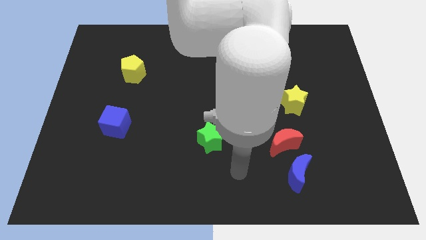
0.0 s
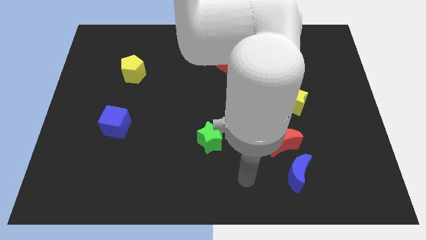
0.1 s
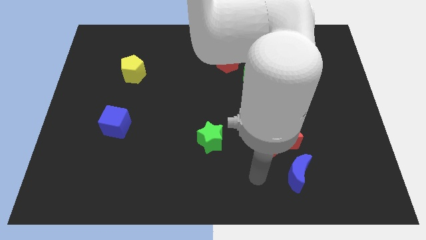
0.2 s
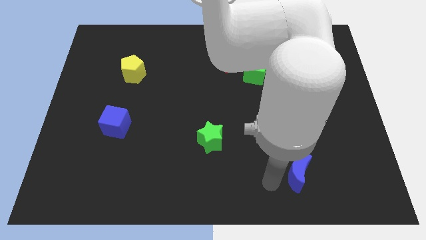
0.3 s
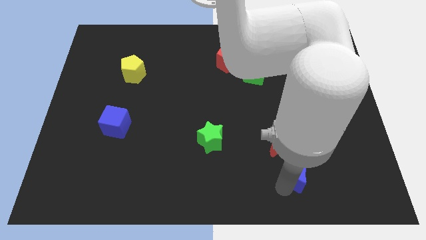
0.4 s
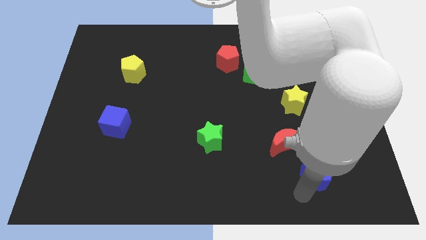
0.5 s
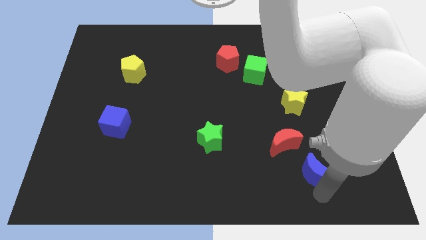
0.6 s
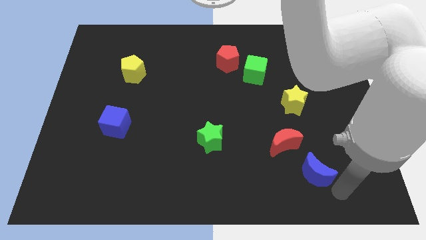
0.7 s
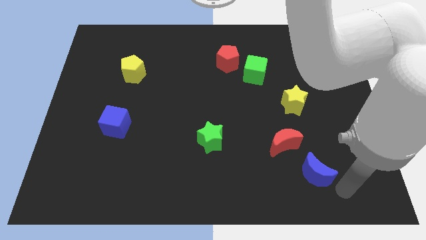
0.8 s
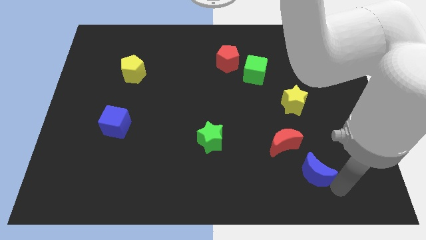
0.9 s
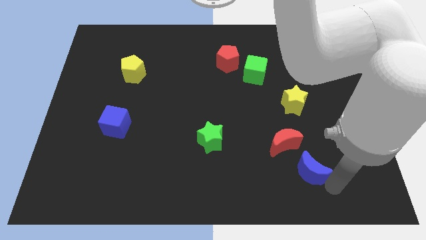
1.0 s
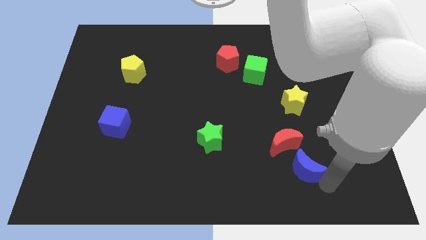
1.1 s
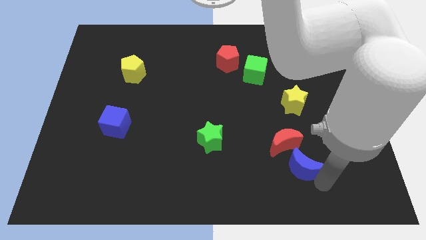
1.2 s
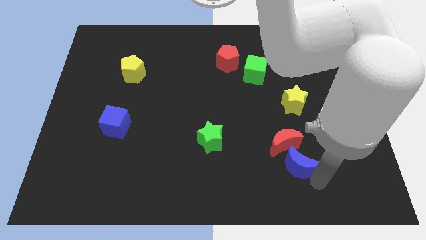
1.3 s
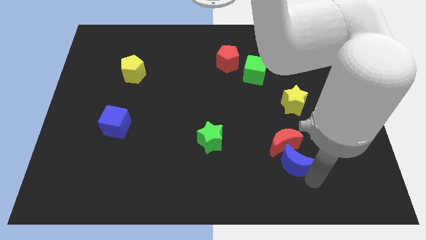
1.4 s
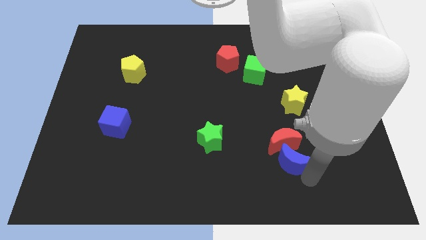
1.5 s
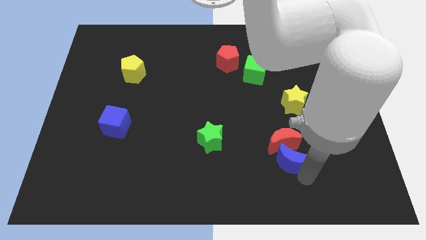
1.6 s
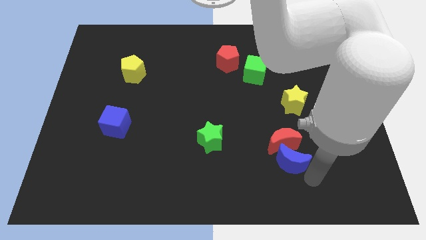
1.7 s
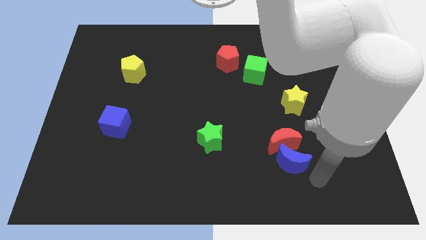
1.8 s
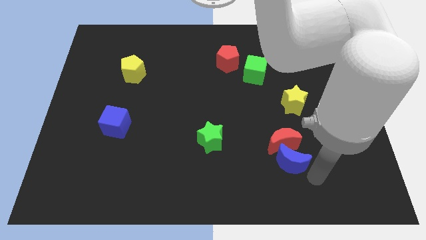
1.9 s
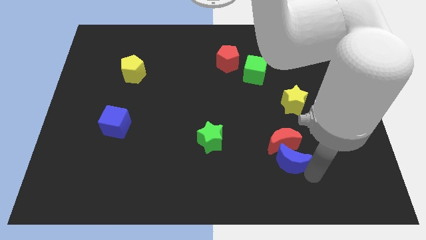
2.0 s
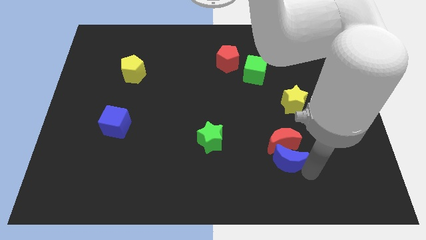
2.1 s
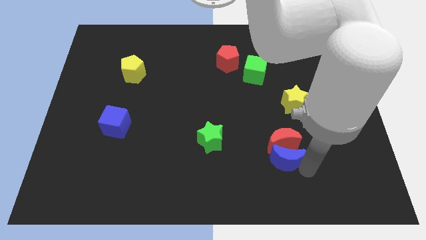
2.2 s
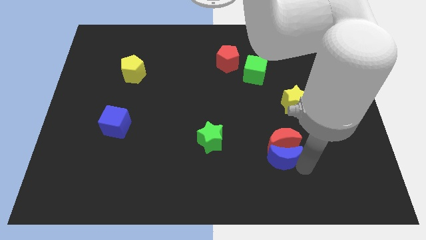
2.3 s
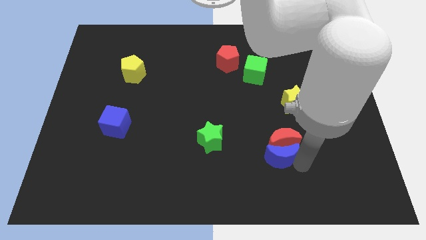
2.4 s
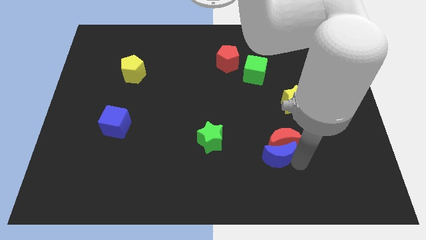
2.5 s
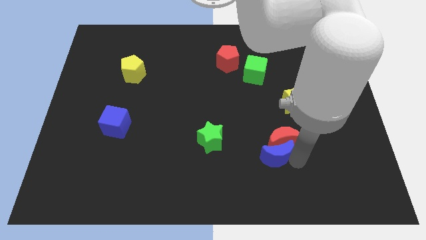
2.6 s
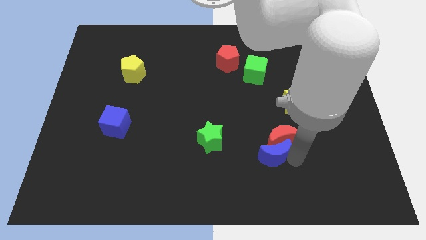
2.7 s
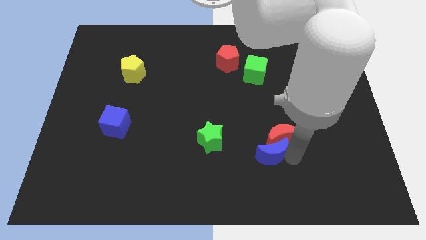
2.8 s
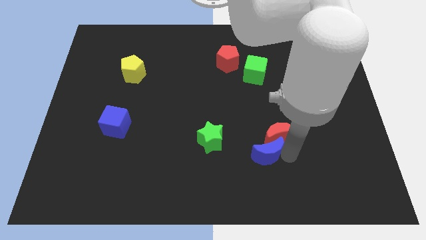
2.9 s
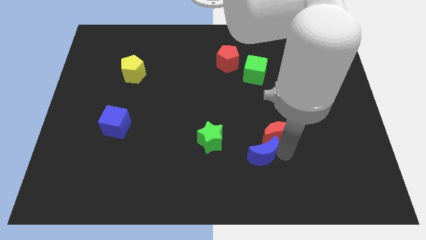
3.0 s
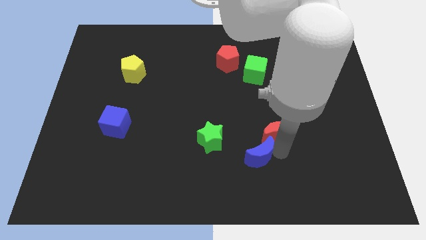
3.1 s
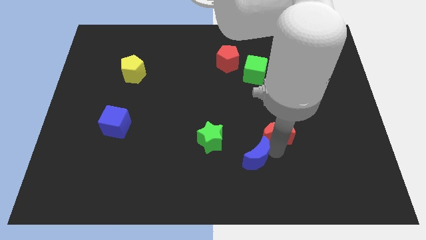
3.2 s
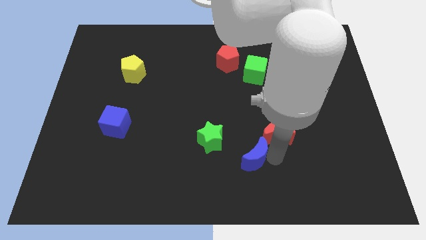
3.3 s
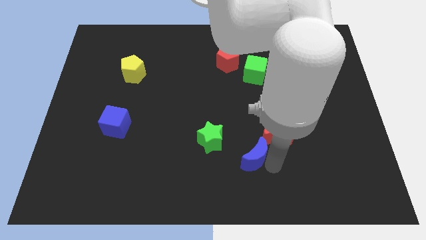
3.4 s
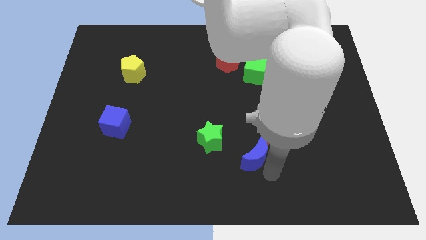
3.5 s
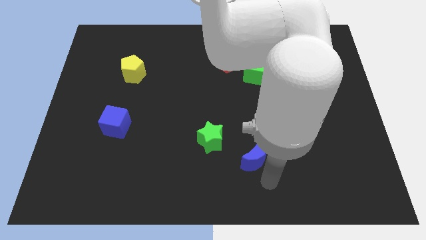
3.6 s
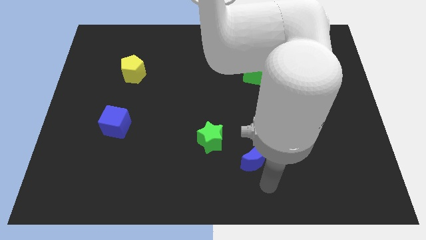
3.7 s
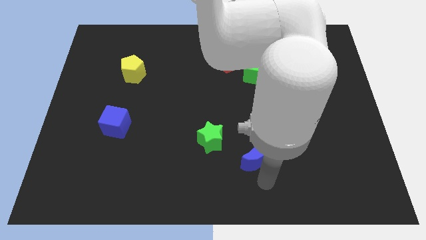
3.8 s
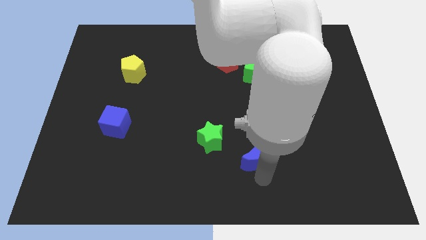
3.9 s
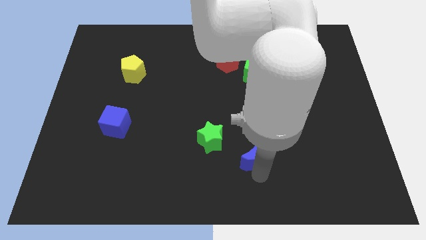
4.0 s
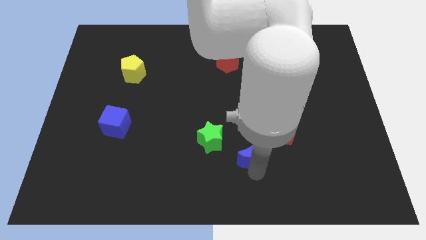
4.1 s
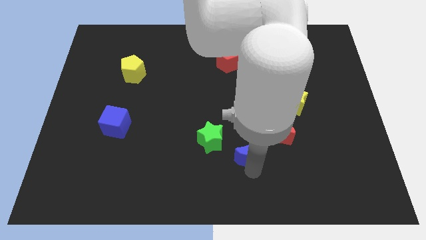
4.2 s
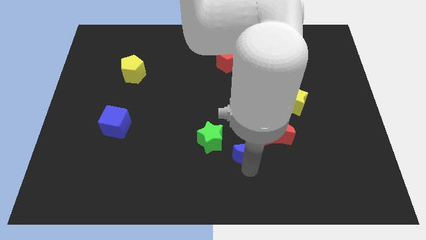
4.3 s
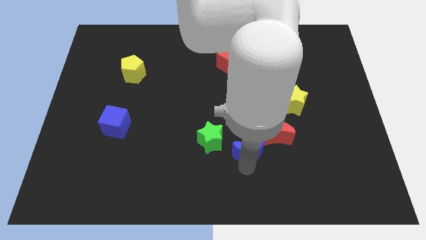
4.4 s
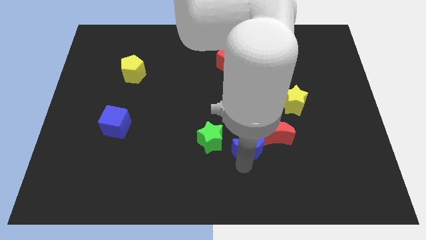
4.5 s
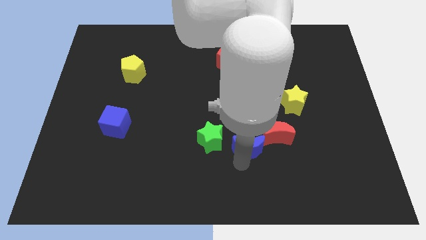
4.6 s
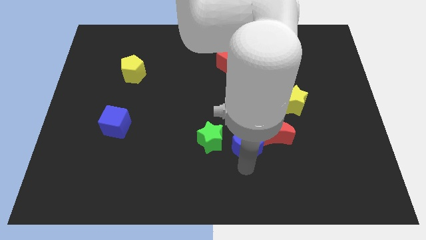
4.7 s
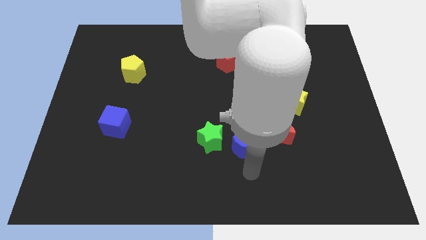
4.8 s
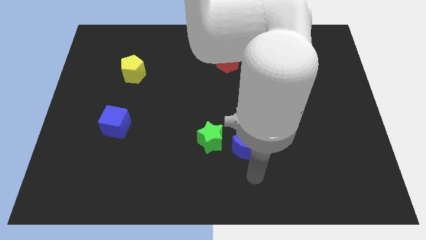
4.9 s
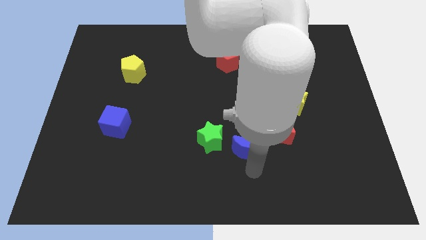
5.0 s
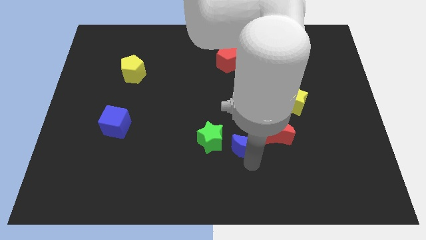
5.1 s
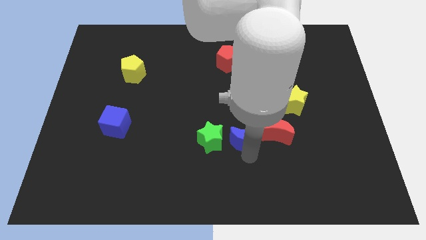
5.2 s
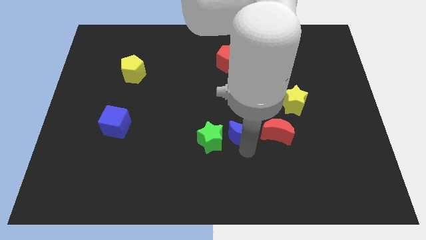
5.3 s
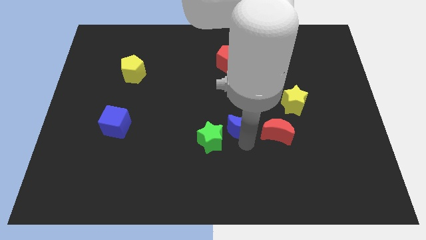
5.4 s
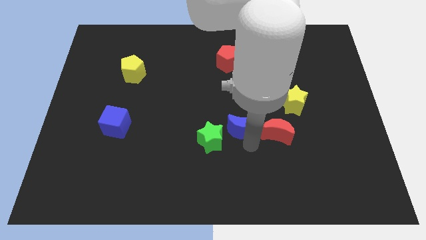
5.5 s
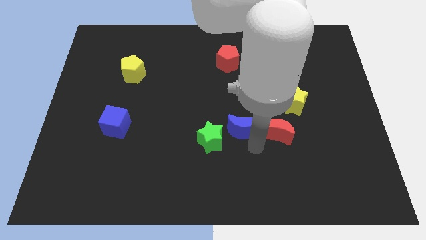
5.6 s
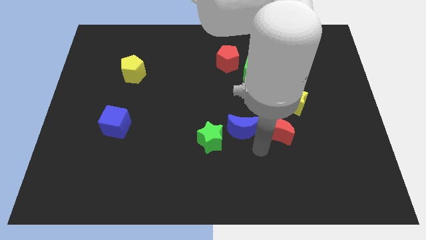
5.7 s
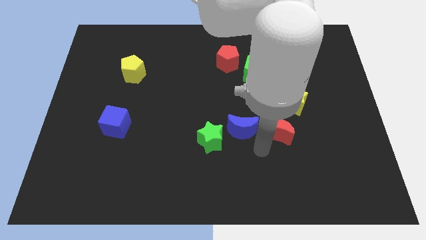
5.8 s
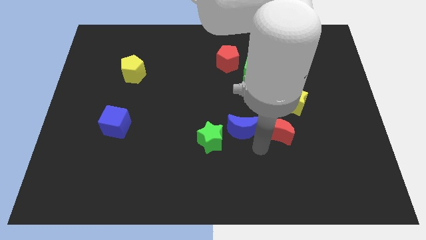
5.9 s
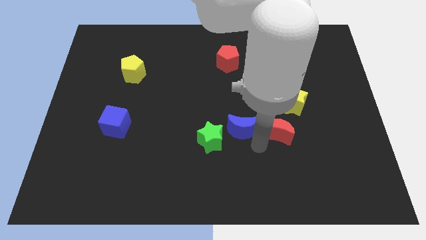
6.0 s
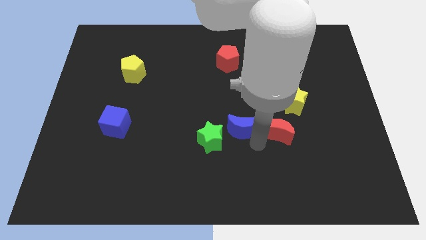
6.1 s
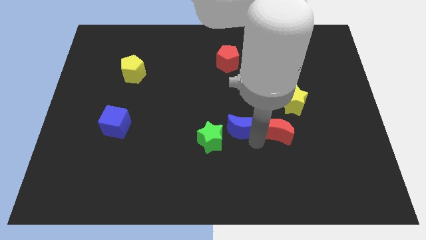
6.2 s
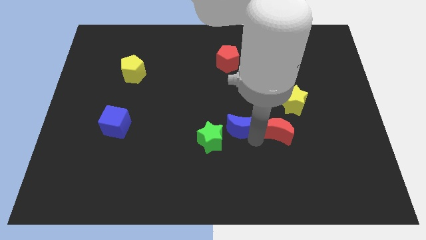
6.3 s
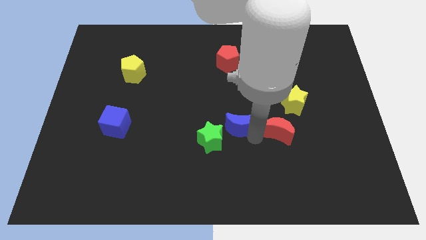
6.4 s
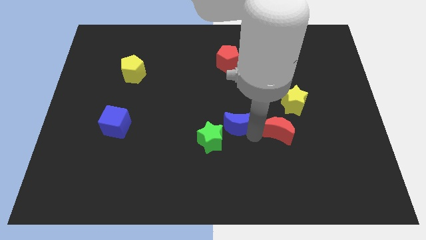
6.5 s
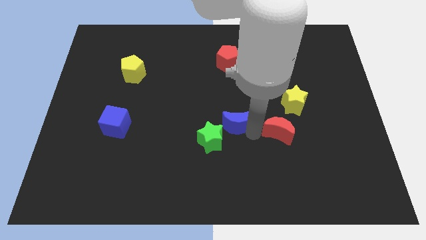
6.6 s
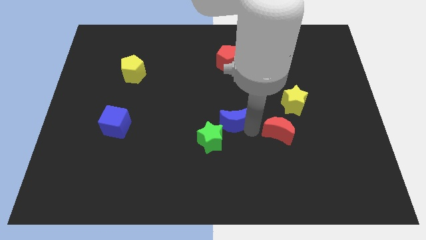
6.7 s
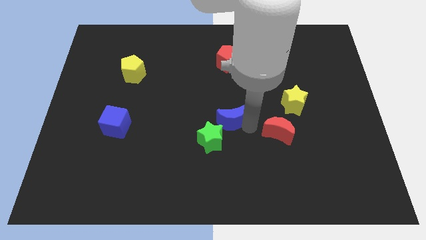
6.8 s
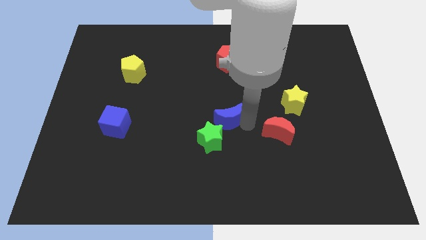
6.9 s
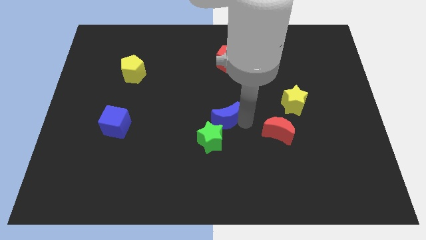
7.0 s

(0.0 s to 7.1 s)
push the blue moon upwards and then to the left

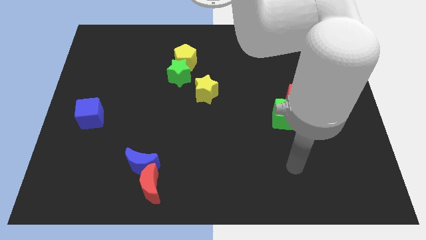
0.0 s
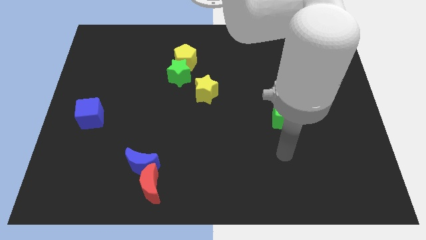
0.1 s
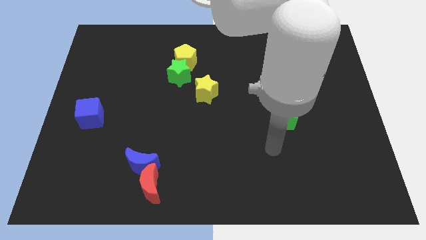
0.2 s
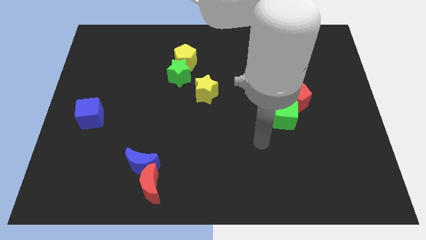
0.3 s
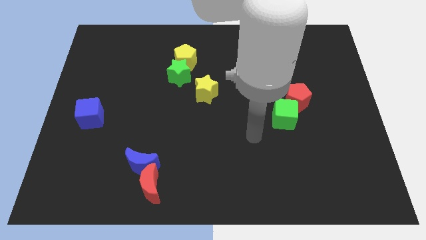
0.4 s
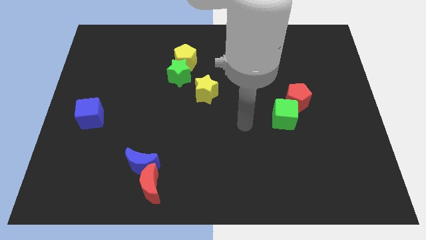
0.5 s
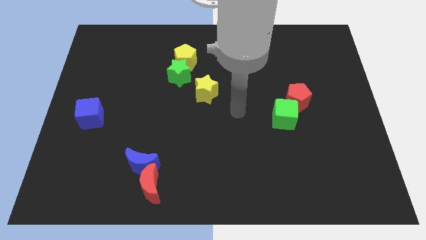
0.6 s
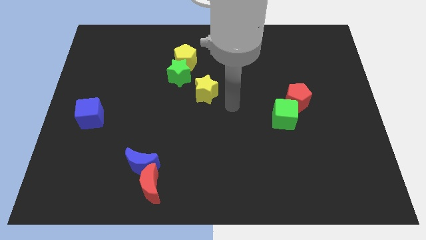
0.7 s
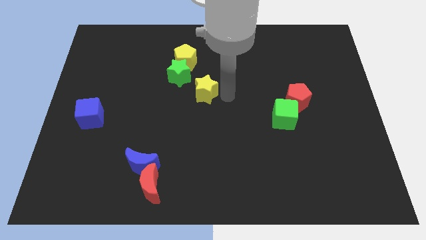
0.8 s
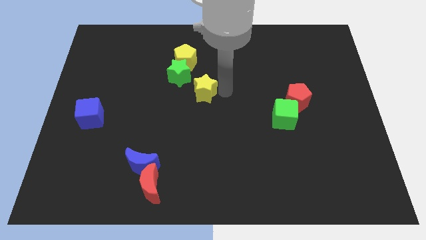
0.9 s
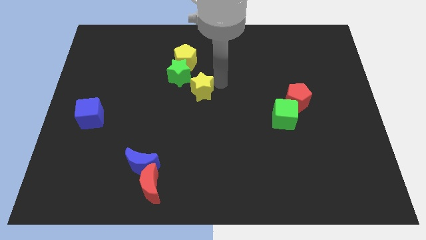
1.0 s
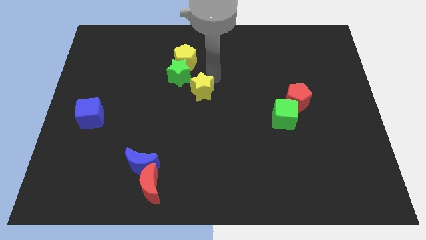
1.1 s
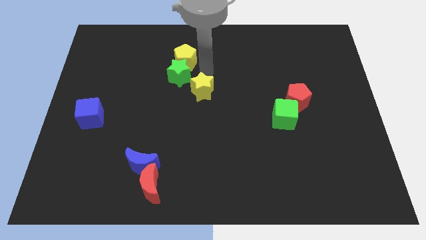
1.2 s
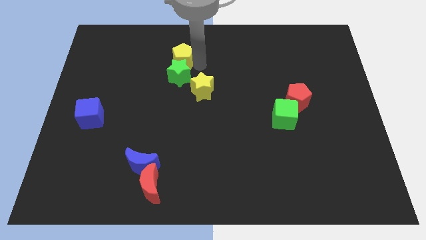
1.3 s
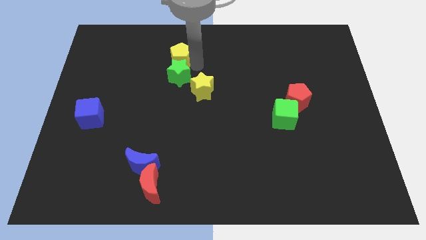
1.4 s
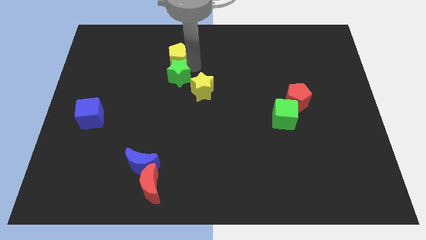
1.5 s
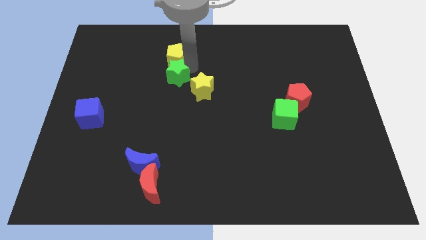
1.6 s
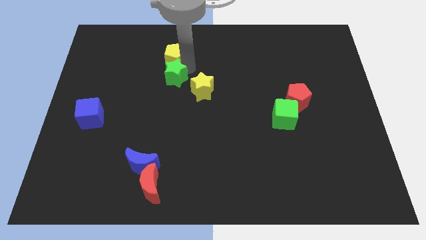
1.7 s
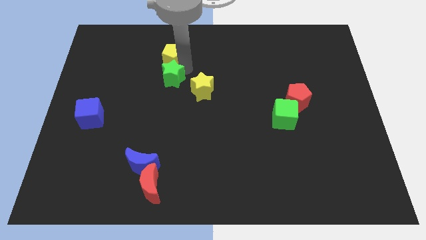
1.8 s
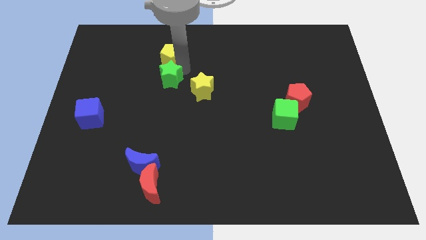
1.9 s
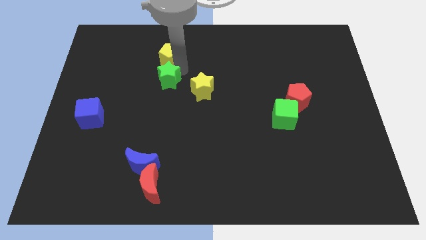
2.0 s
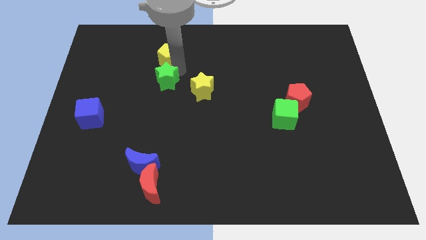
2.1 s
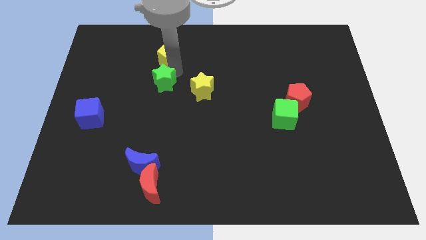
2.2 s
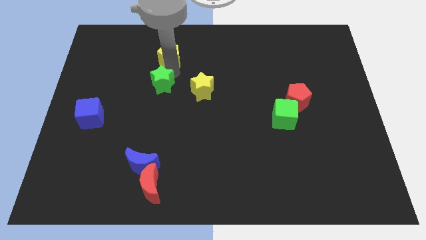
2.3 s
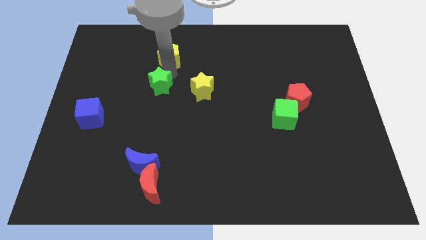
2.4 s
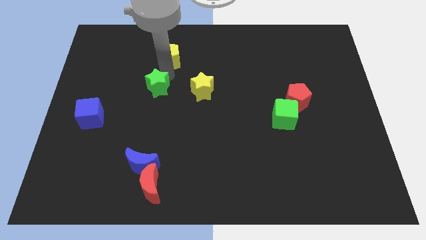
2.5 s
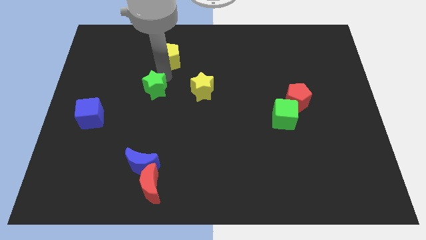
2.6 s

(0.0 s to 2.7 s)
push the green star down and then left slightly
